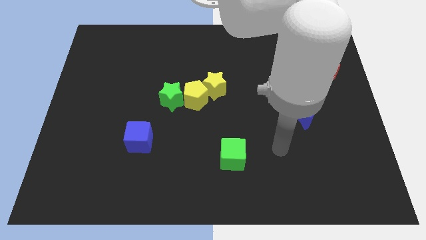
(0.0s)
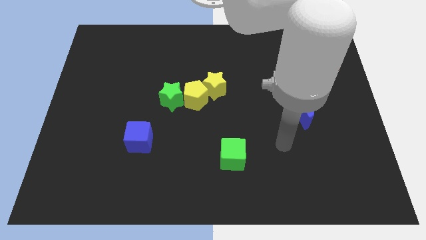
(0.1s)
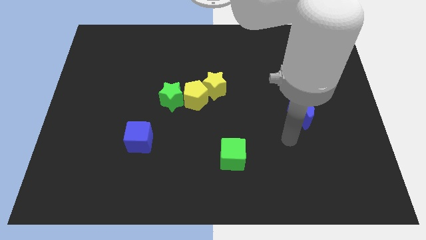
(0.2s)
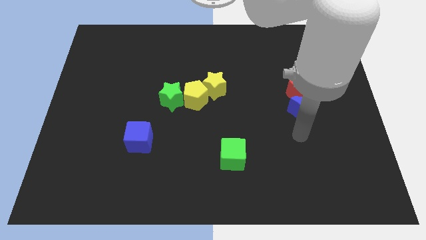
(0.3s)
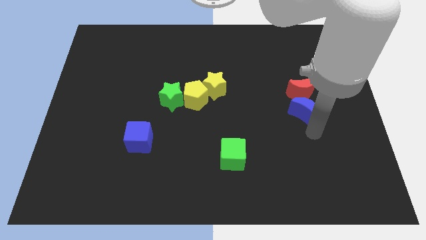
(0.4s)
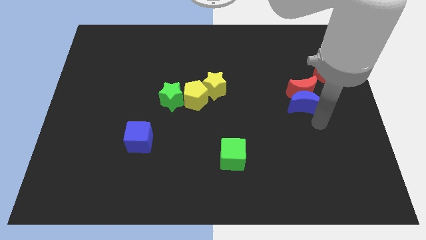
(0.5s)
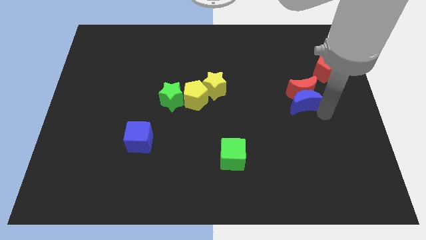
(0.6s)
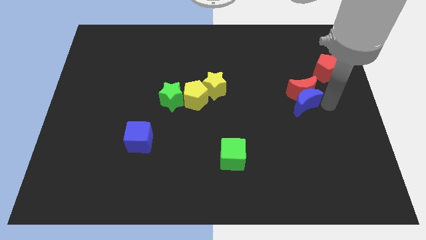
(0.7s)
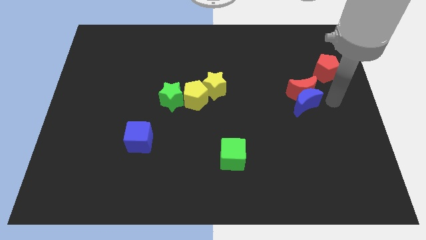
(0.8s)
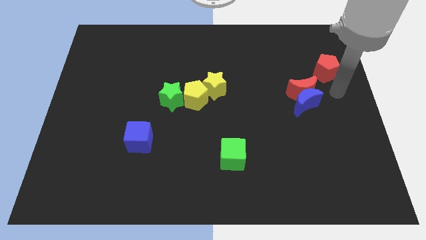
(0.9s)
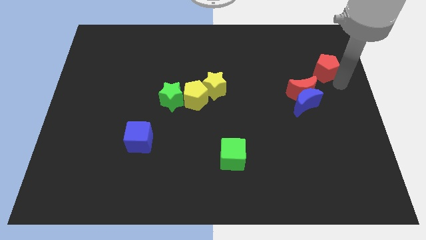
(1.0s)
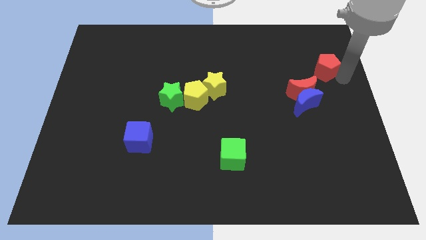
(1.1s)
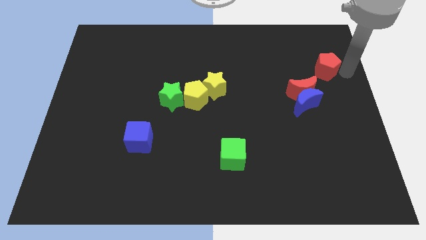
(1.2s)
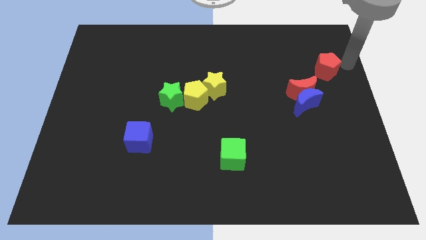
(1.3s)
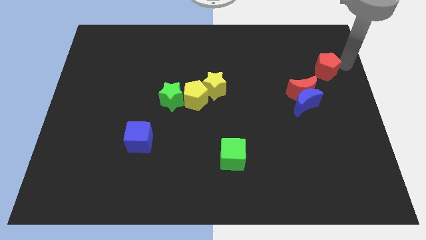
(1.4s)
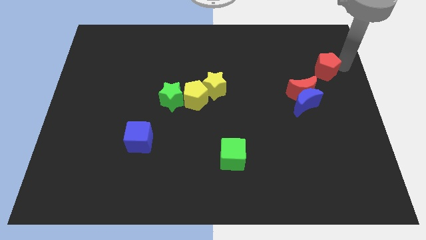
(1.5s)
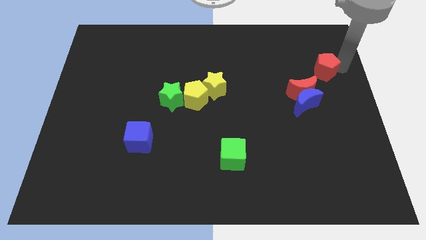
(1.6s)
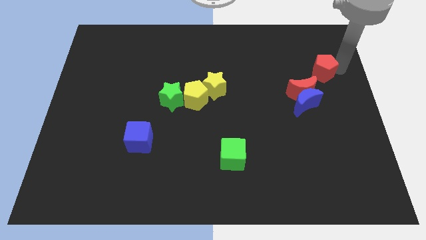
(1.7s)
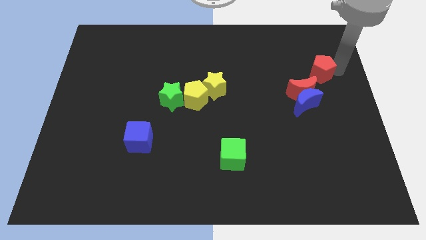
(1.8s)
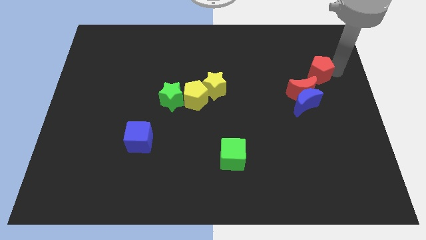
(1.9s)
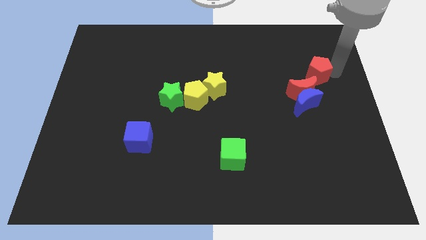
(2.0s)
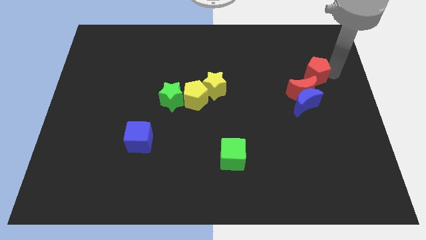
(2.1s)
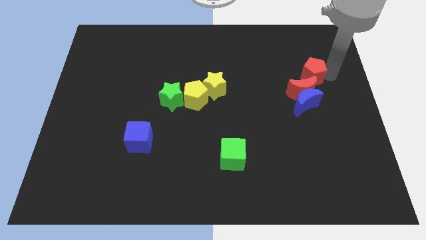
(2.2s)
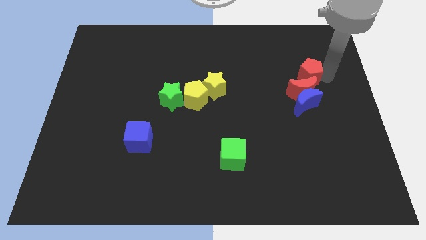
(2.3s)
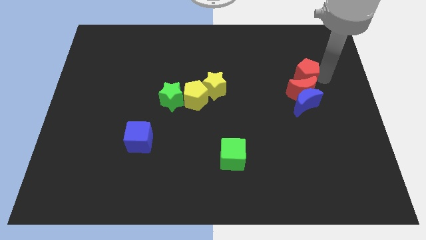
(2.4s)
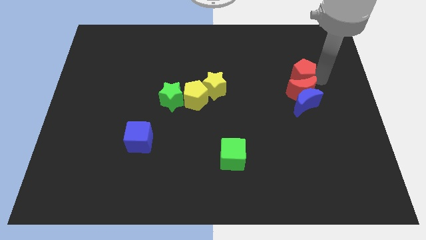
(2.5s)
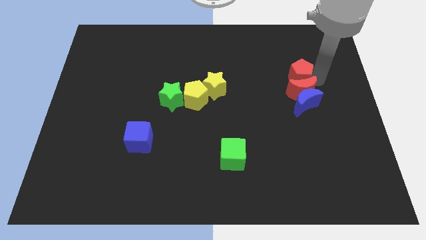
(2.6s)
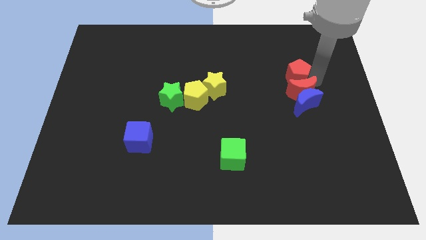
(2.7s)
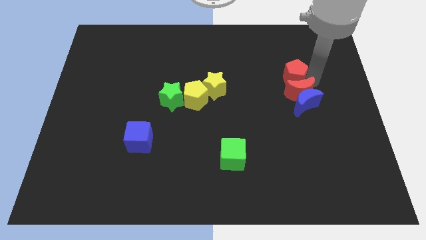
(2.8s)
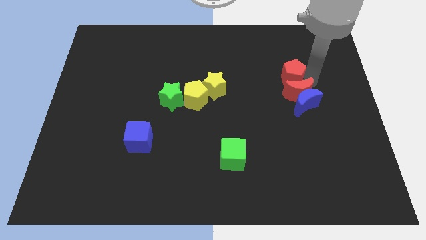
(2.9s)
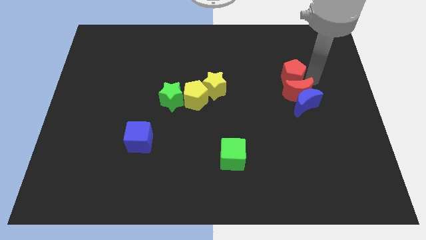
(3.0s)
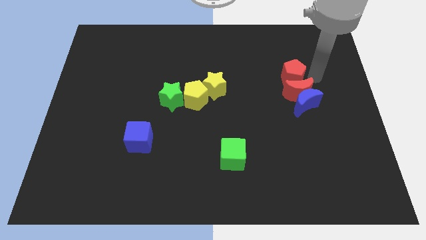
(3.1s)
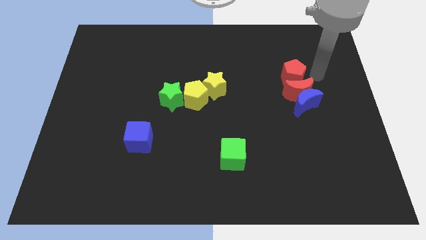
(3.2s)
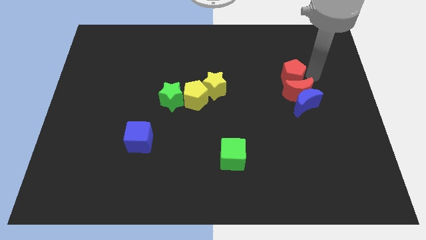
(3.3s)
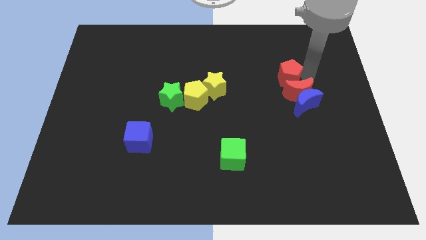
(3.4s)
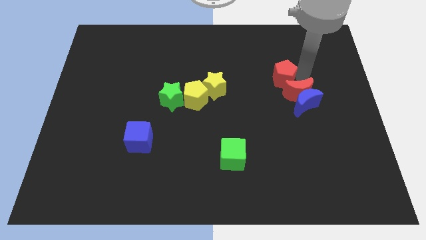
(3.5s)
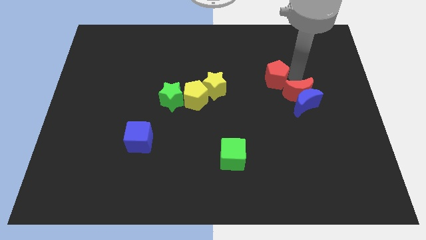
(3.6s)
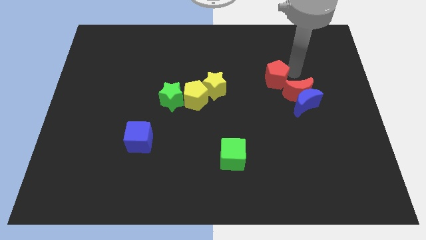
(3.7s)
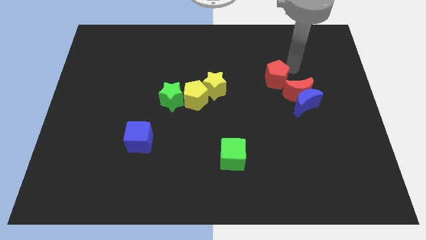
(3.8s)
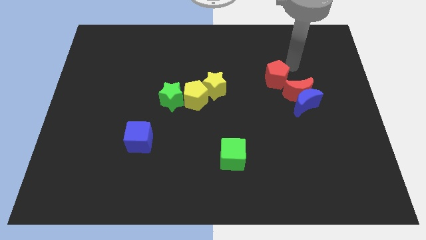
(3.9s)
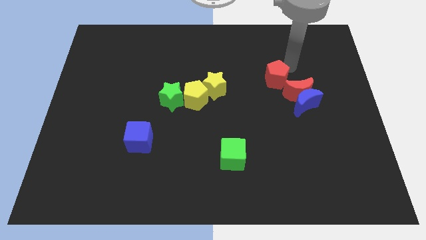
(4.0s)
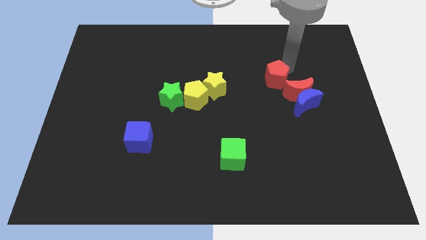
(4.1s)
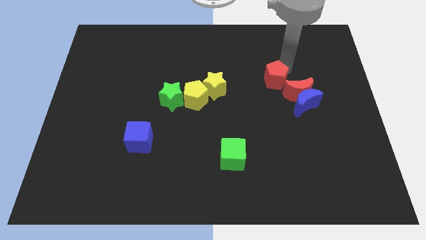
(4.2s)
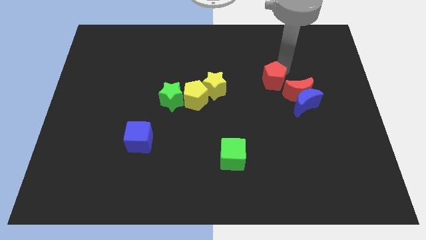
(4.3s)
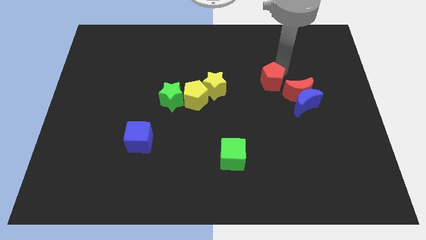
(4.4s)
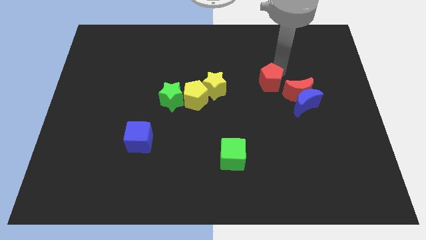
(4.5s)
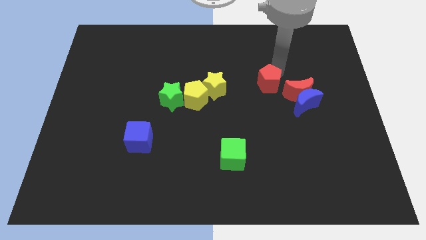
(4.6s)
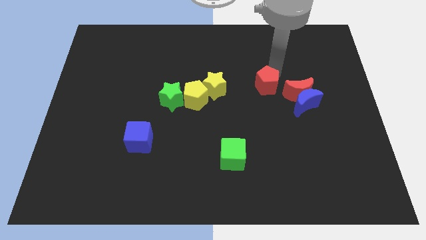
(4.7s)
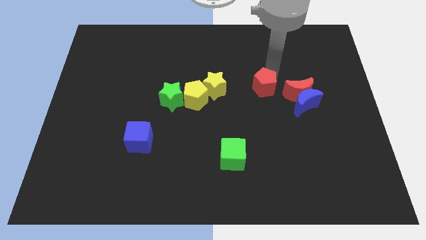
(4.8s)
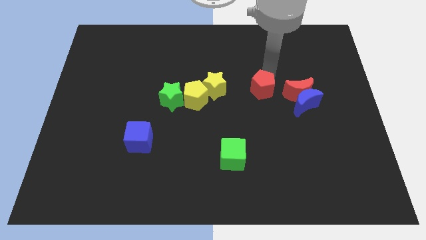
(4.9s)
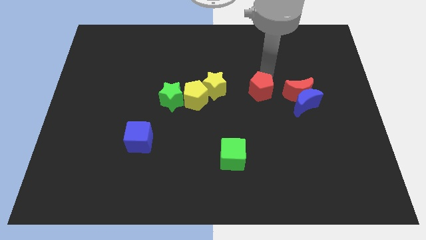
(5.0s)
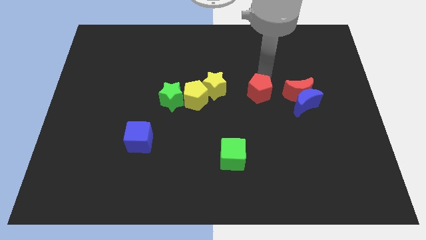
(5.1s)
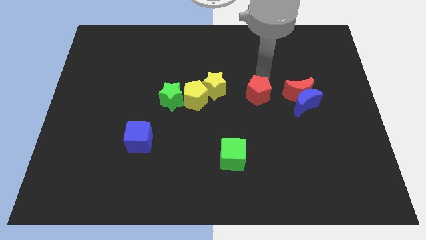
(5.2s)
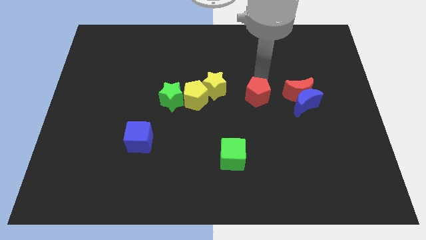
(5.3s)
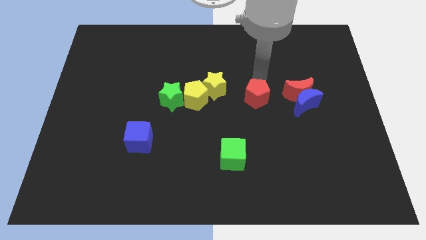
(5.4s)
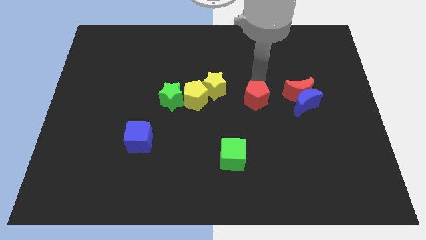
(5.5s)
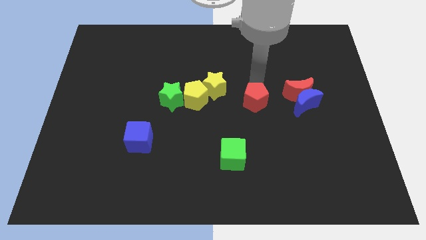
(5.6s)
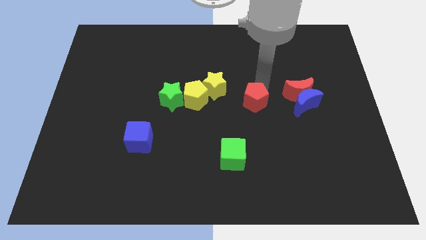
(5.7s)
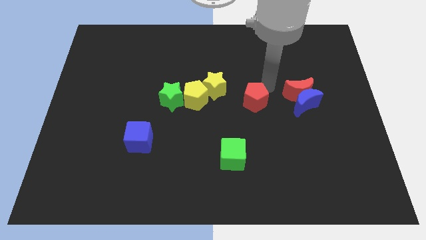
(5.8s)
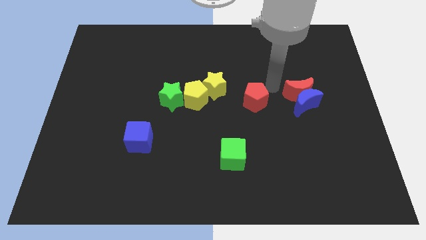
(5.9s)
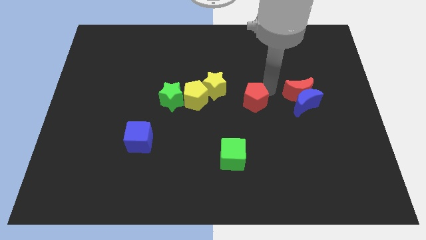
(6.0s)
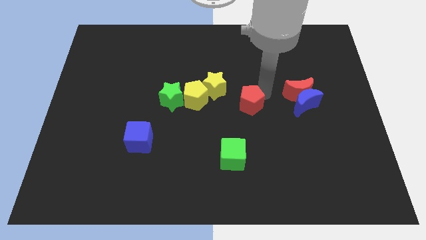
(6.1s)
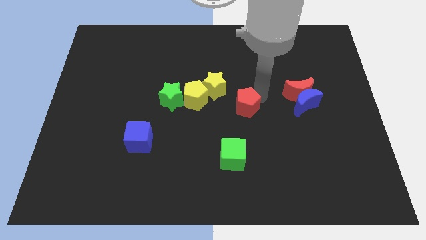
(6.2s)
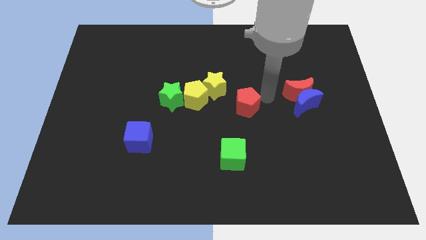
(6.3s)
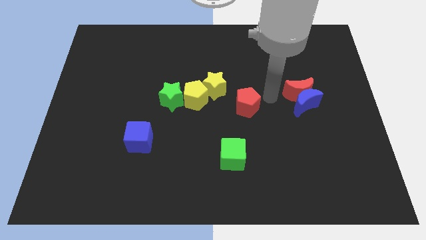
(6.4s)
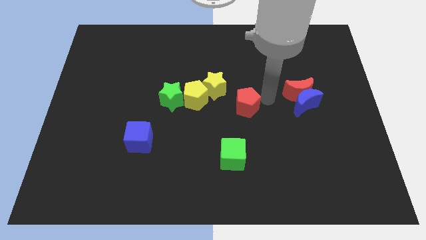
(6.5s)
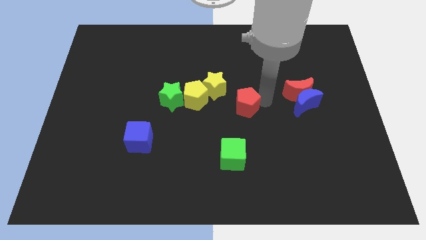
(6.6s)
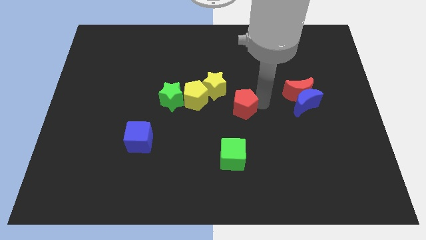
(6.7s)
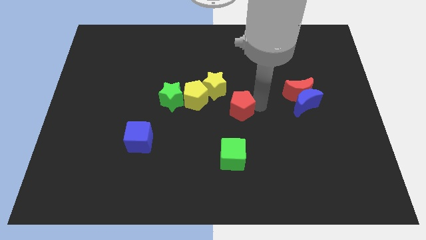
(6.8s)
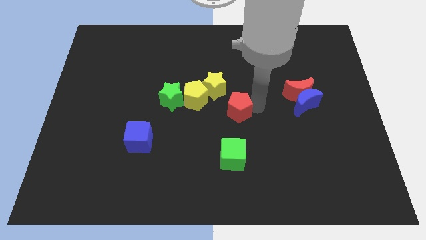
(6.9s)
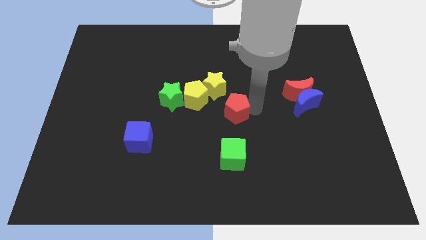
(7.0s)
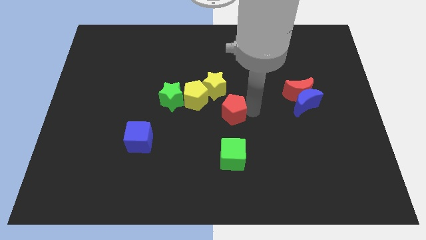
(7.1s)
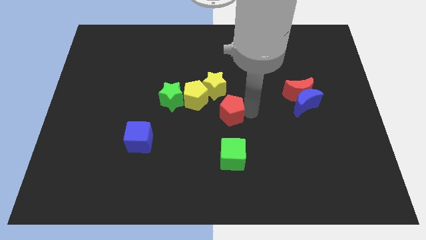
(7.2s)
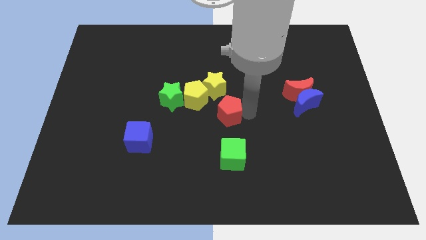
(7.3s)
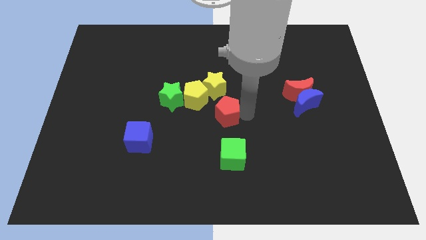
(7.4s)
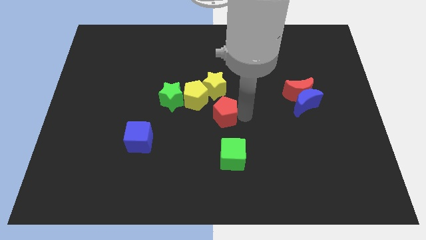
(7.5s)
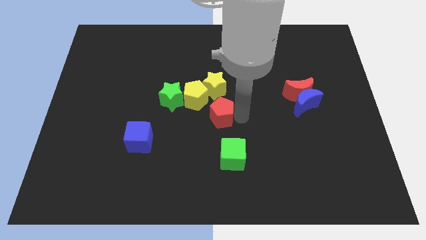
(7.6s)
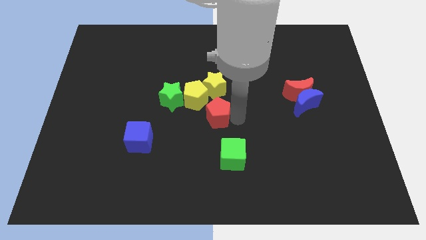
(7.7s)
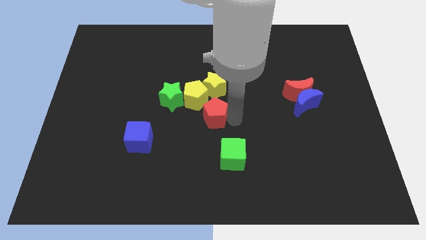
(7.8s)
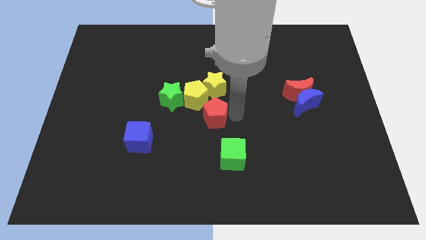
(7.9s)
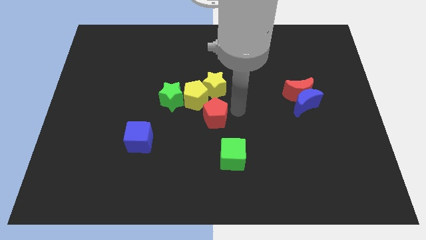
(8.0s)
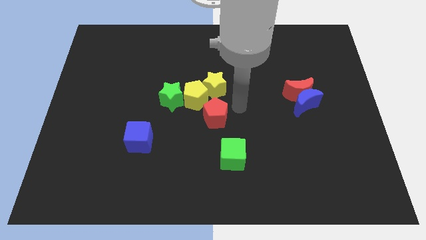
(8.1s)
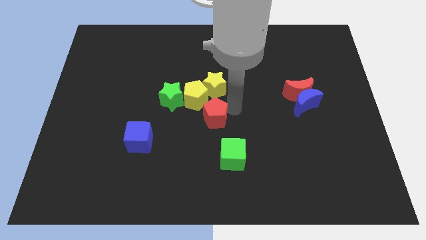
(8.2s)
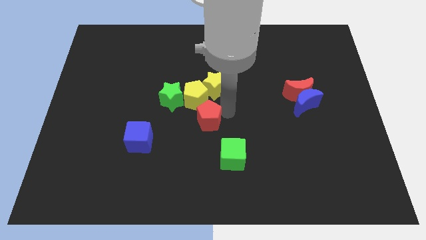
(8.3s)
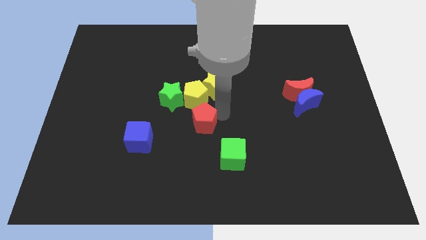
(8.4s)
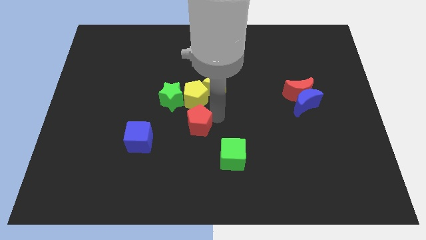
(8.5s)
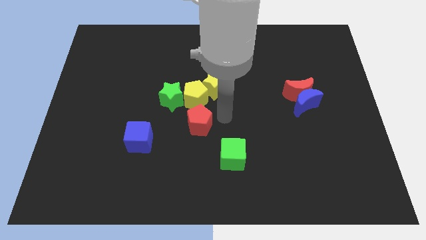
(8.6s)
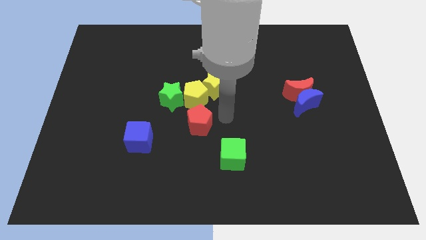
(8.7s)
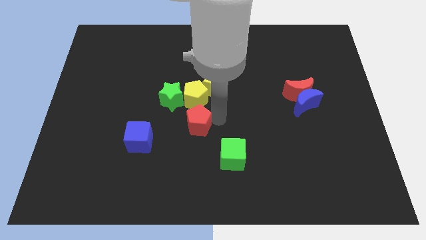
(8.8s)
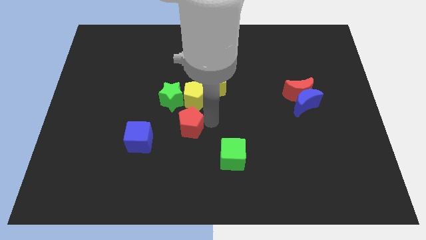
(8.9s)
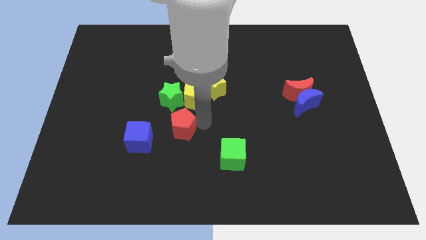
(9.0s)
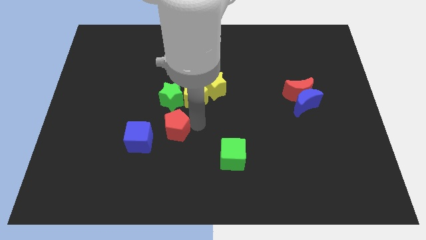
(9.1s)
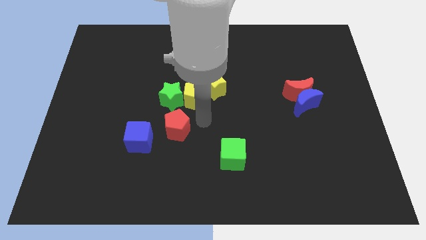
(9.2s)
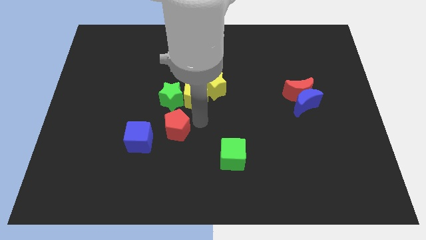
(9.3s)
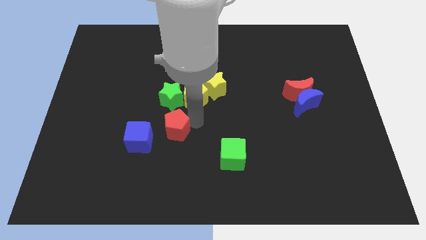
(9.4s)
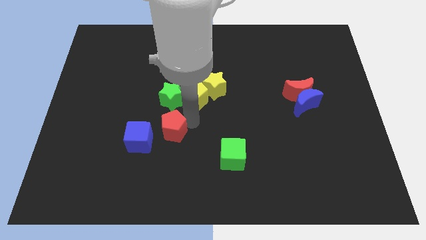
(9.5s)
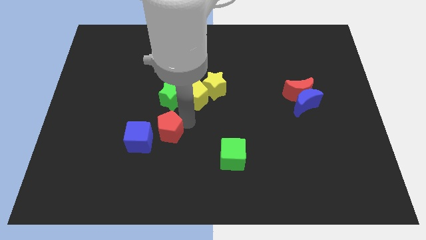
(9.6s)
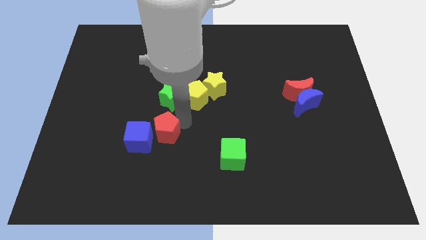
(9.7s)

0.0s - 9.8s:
move the red pentagon to the blue cube
